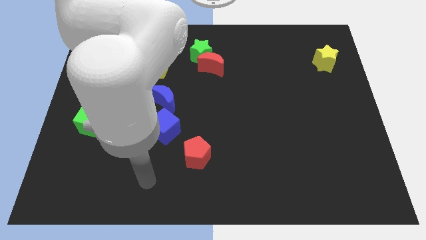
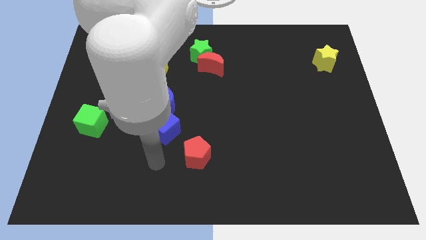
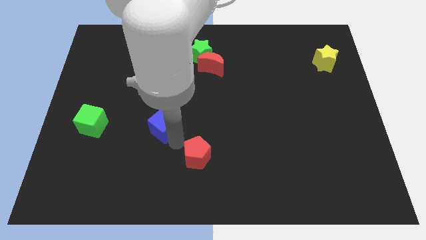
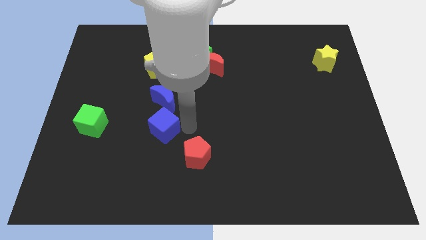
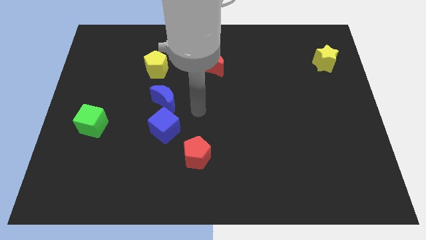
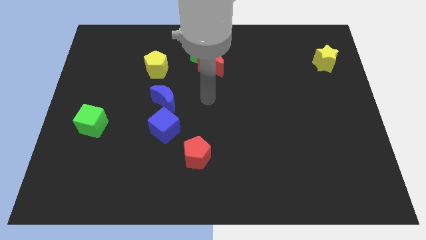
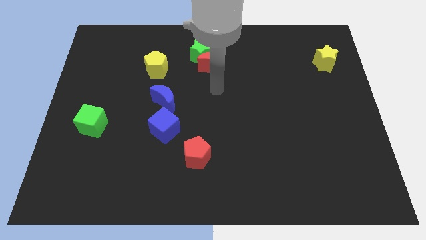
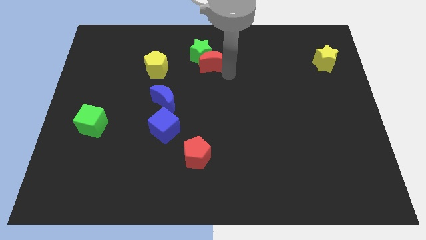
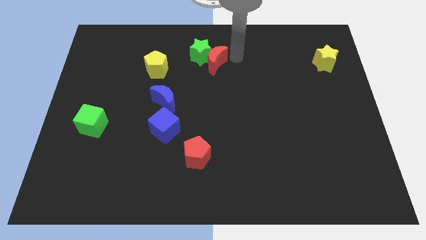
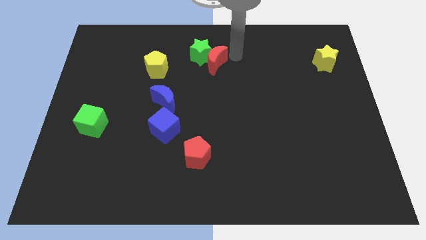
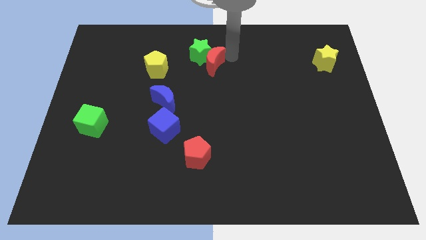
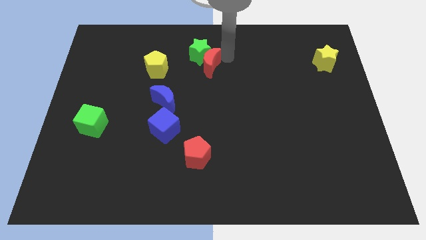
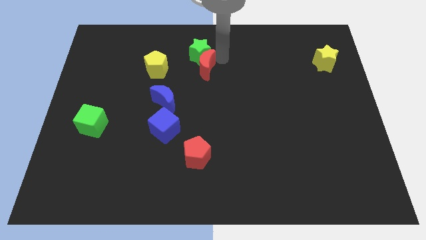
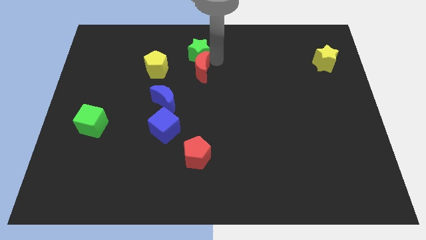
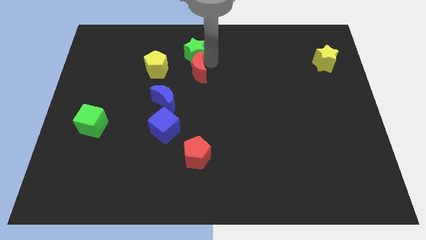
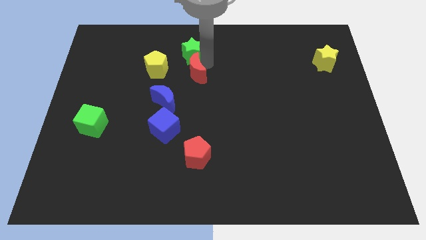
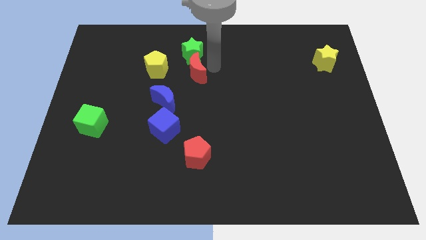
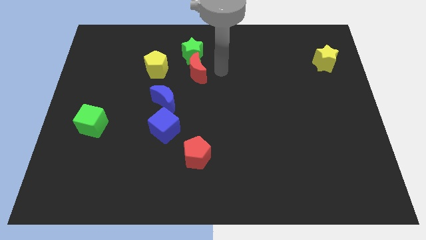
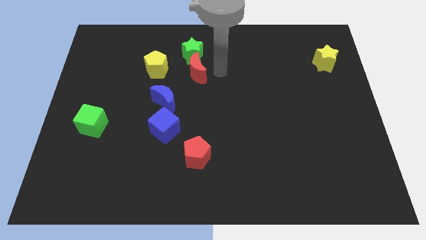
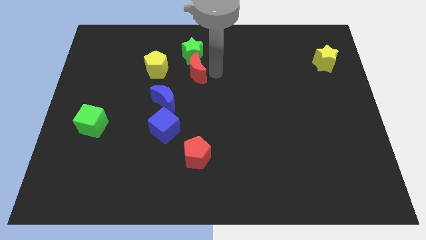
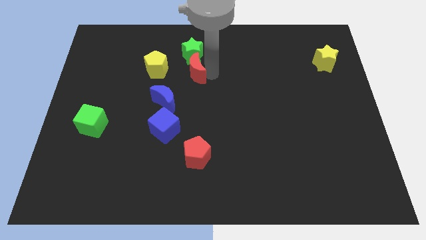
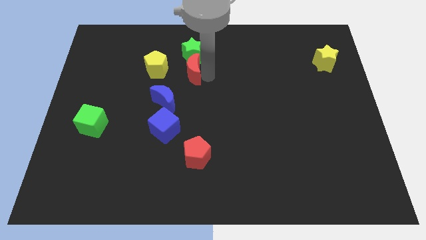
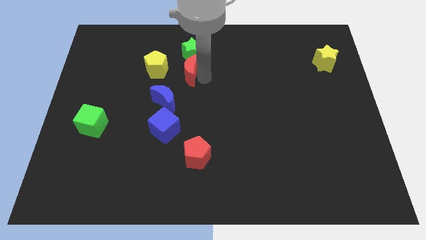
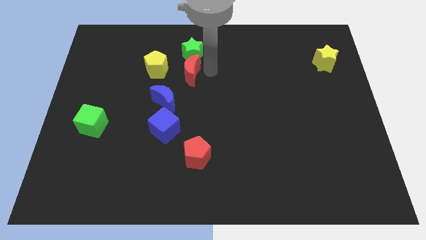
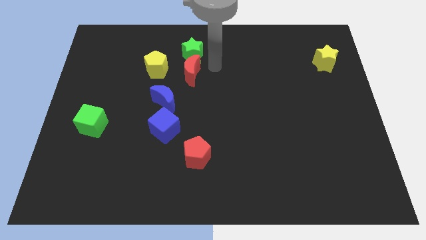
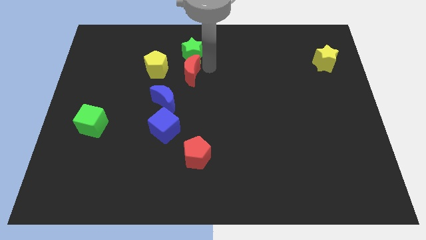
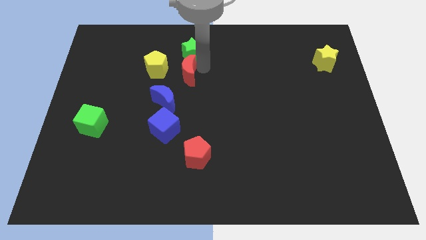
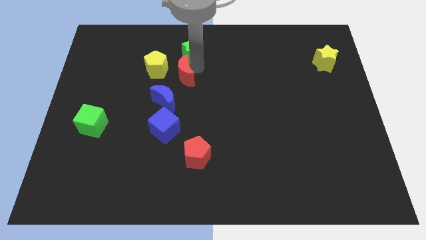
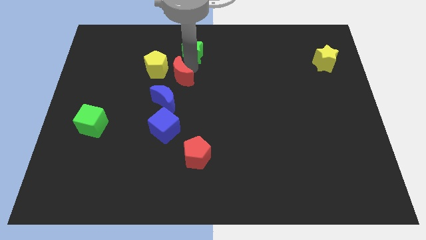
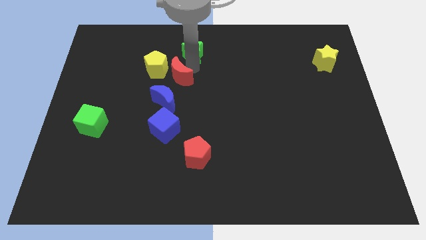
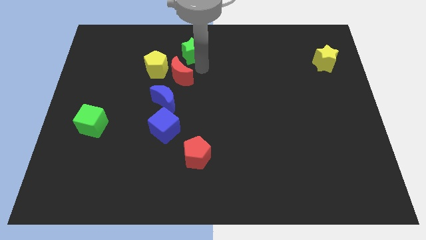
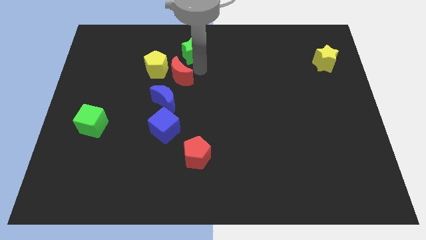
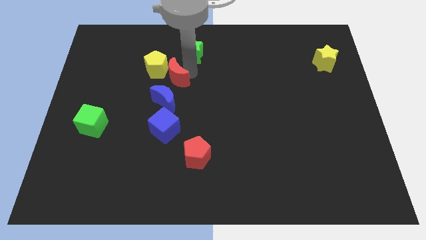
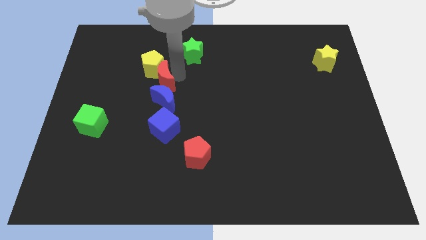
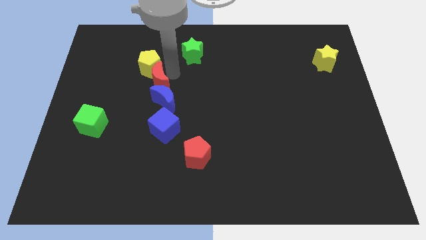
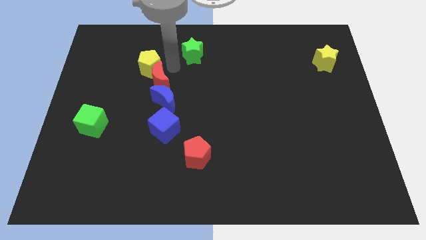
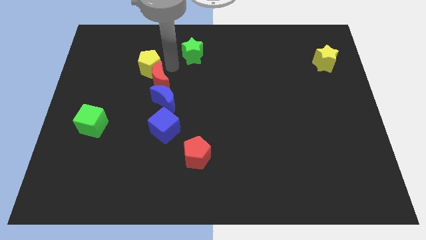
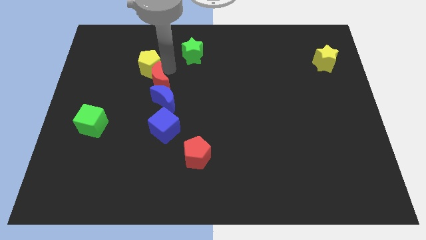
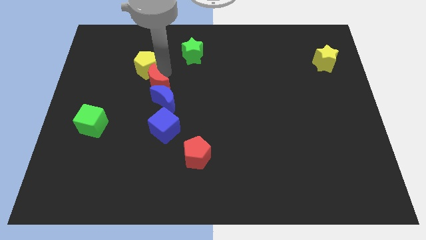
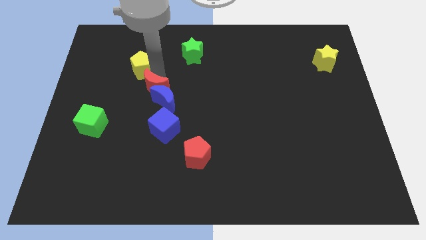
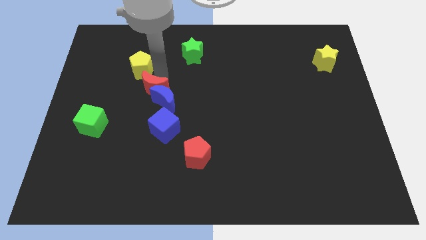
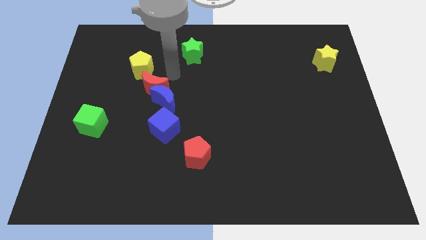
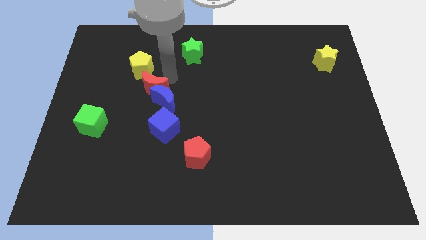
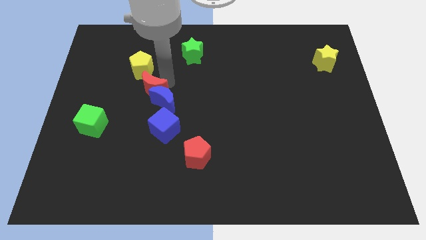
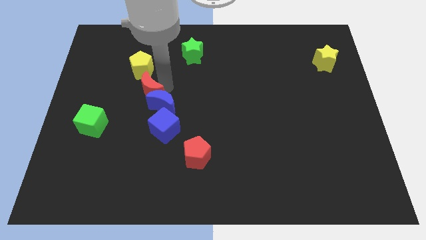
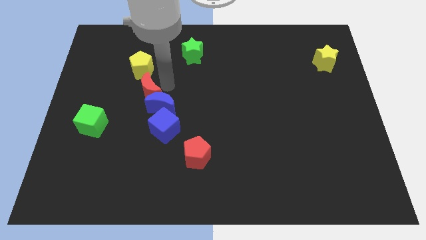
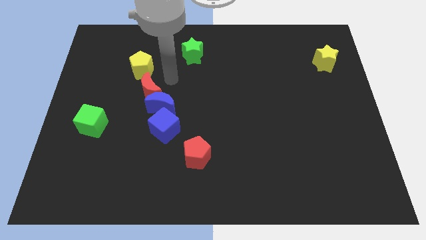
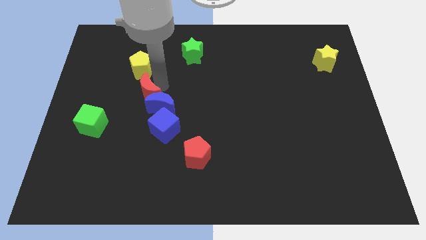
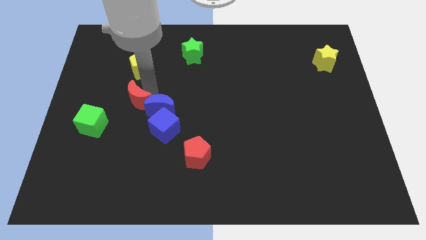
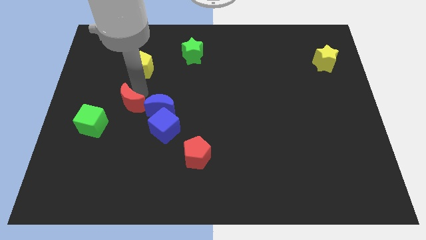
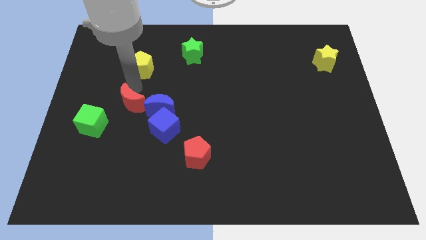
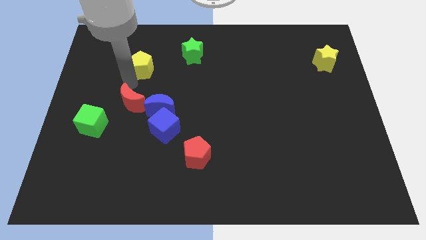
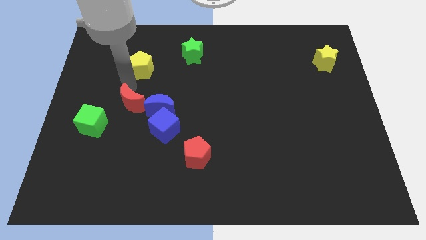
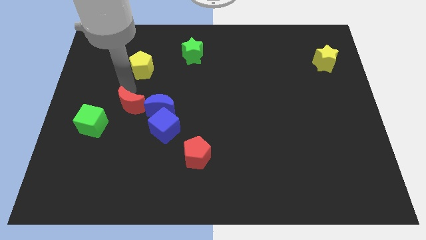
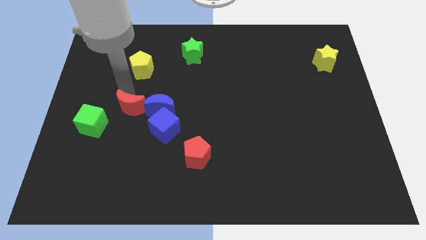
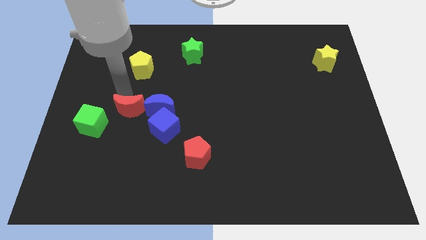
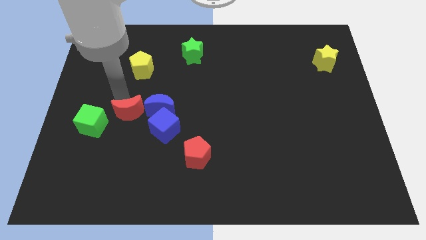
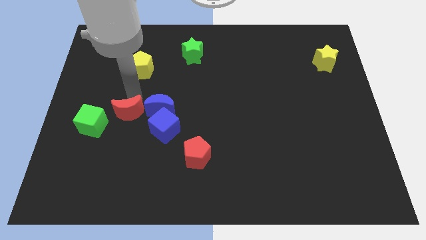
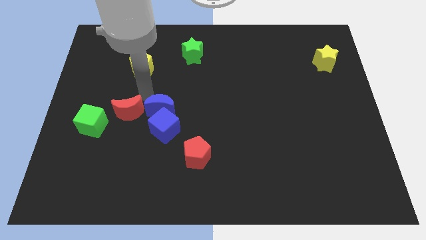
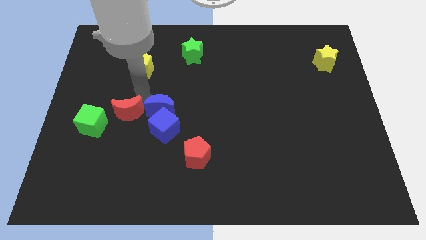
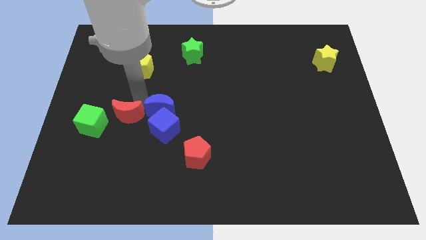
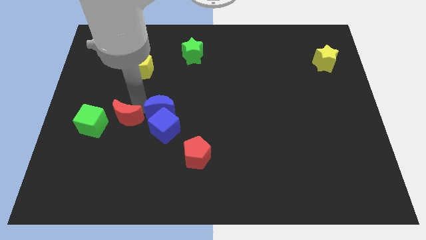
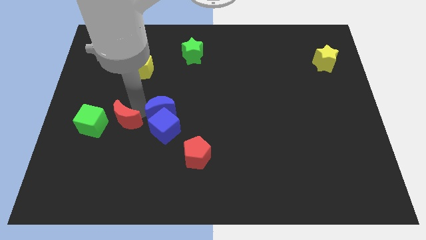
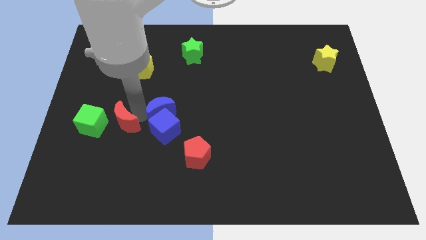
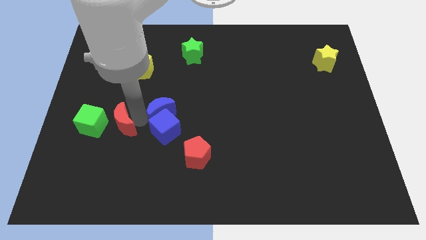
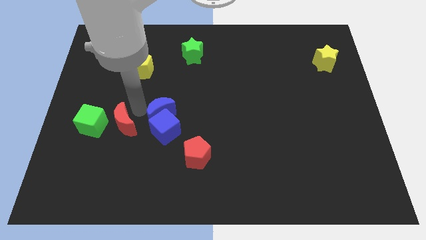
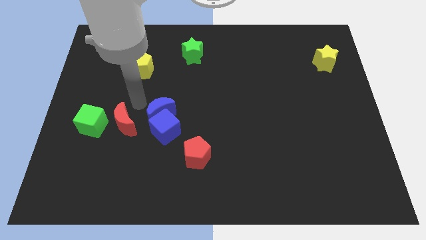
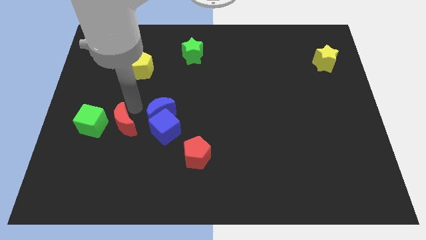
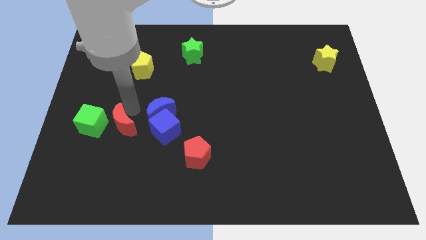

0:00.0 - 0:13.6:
put the red moon to the bottom right of the green cube
